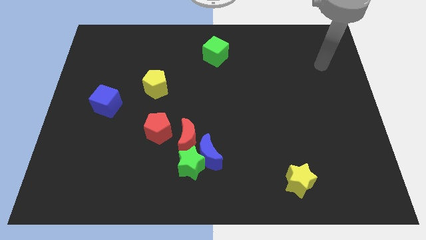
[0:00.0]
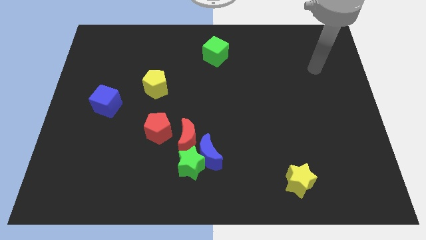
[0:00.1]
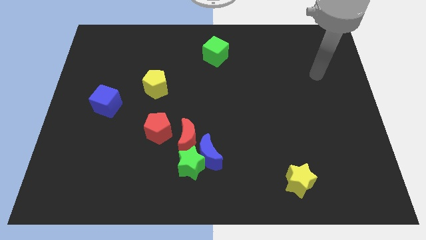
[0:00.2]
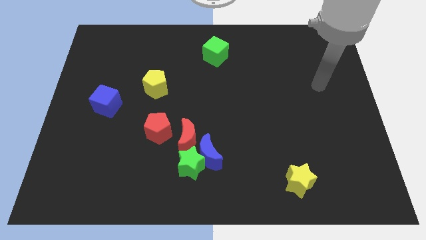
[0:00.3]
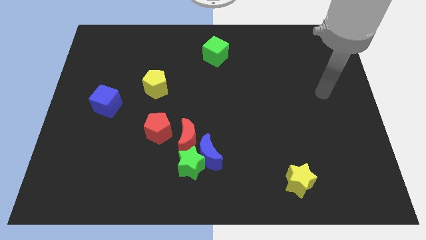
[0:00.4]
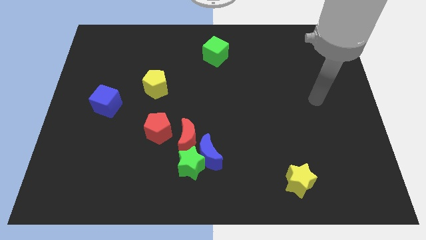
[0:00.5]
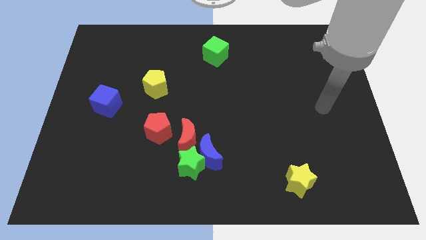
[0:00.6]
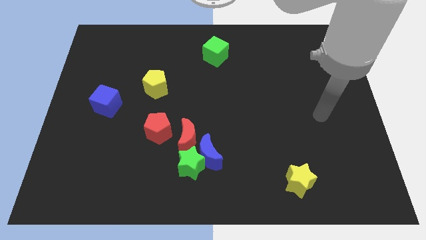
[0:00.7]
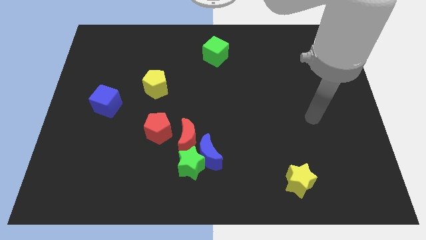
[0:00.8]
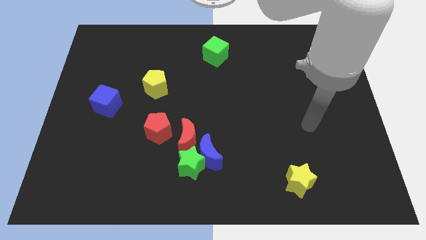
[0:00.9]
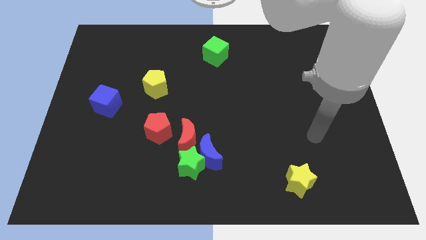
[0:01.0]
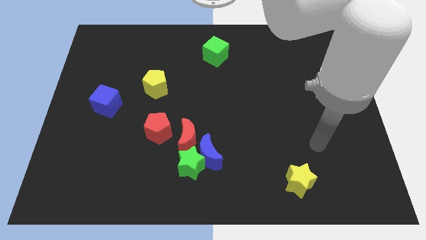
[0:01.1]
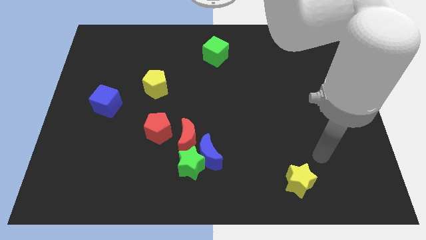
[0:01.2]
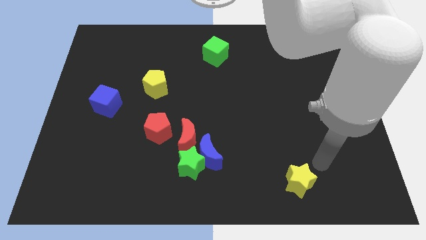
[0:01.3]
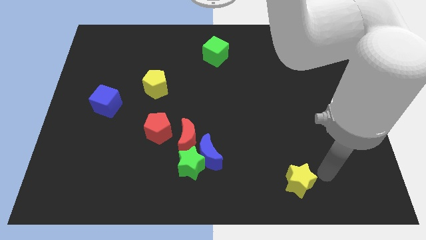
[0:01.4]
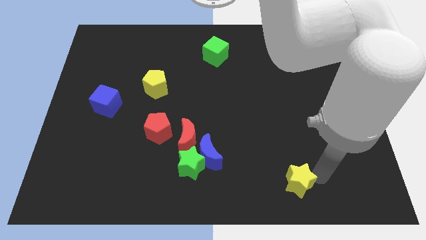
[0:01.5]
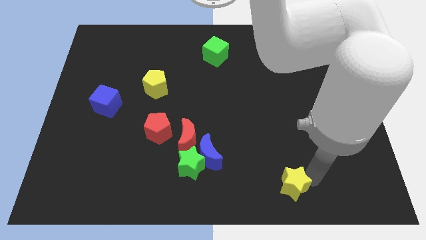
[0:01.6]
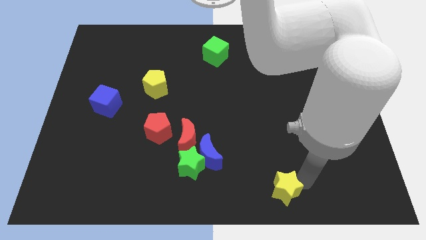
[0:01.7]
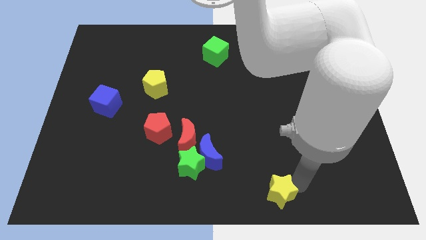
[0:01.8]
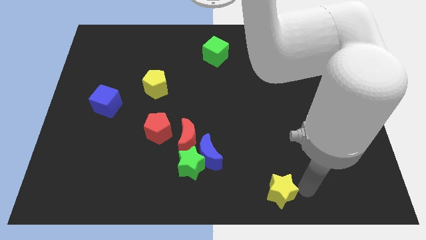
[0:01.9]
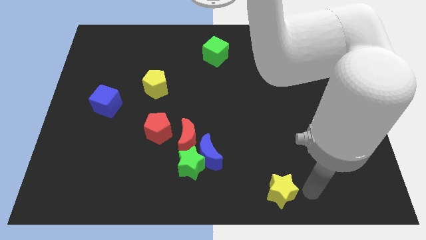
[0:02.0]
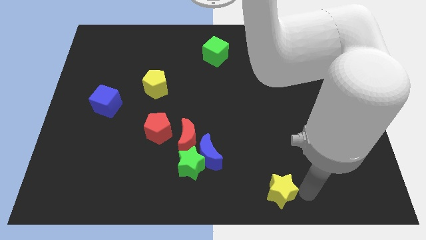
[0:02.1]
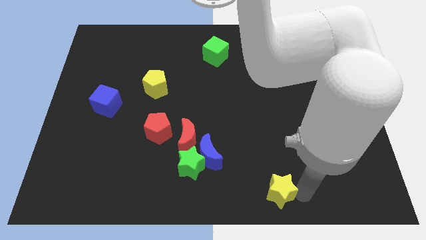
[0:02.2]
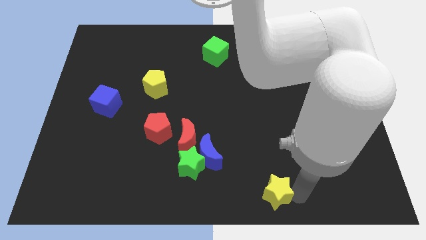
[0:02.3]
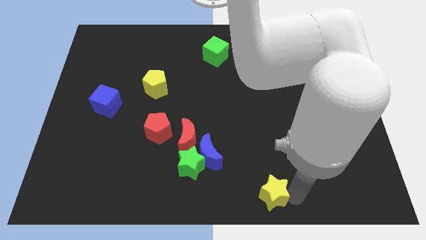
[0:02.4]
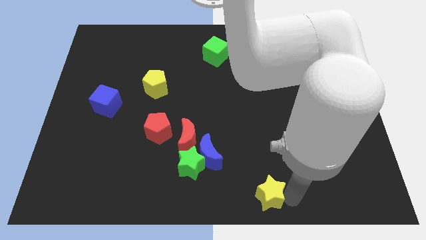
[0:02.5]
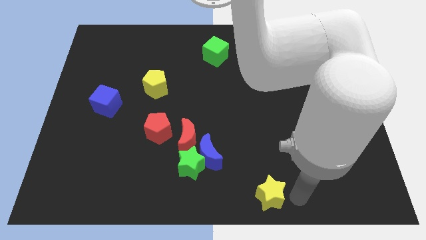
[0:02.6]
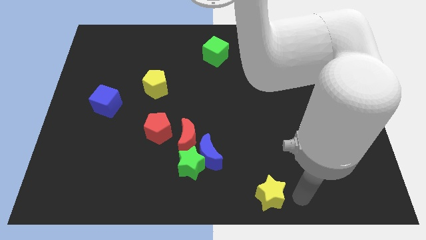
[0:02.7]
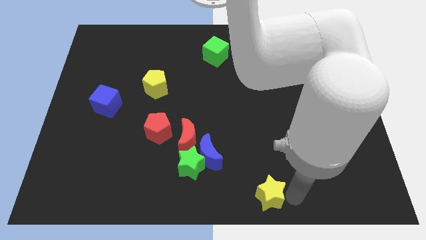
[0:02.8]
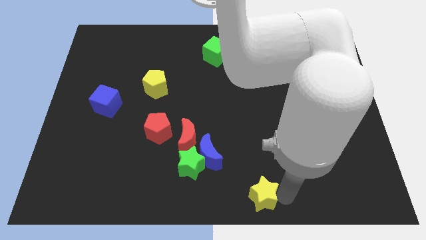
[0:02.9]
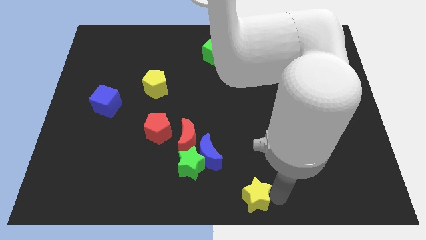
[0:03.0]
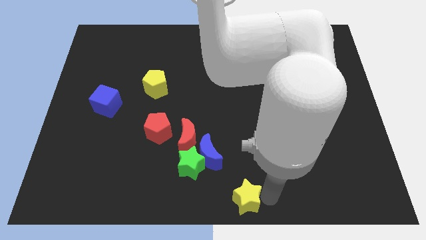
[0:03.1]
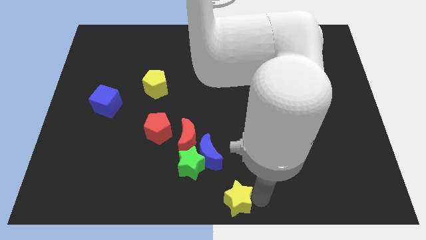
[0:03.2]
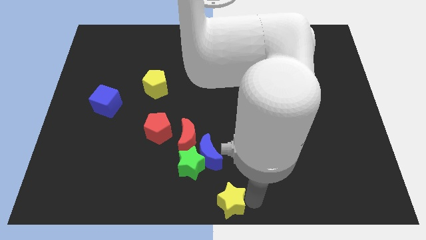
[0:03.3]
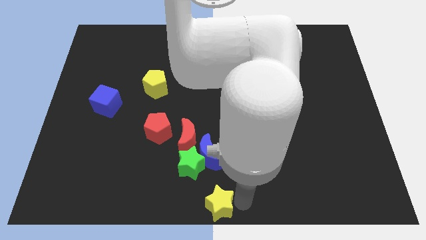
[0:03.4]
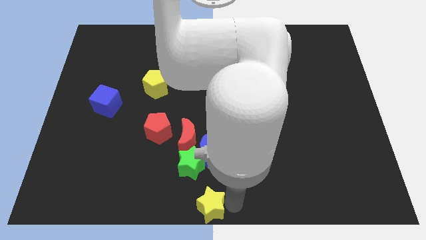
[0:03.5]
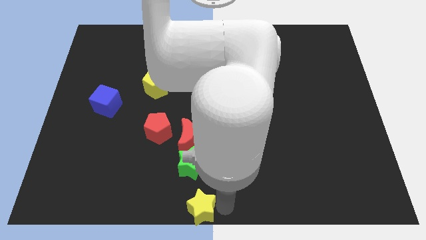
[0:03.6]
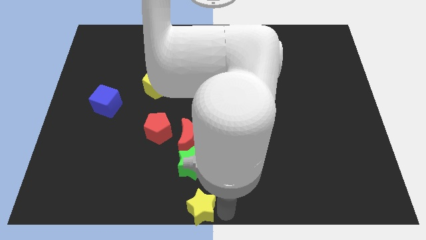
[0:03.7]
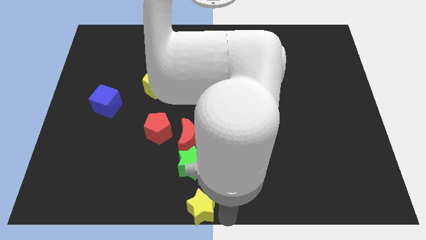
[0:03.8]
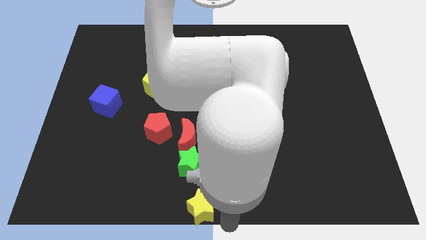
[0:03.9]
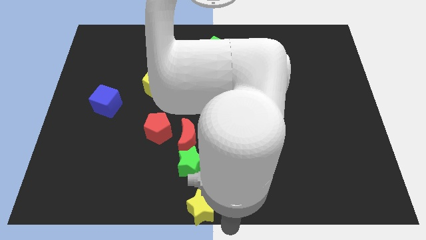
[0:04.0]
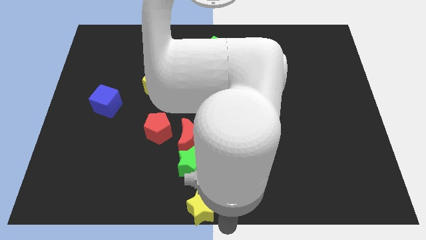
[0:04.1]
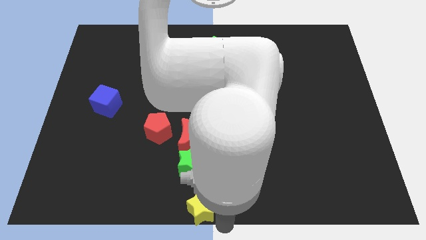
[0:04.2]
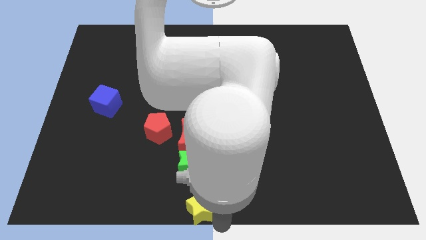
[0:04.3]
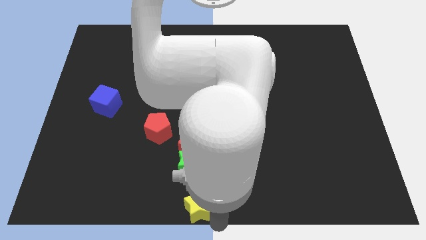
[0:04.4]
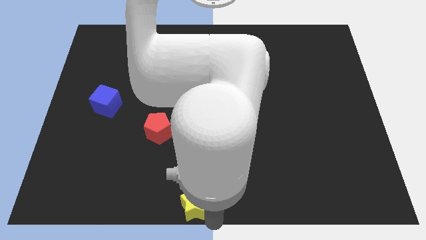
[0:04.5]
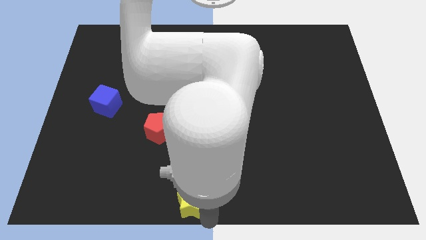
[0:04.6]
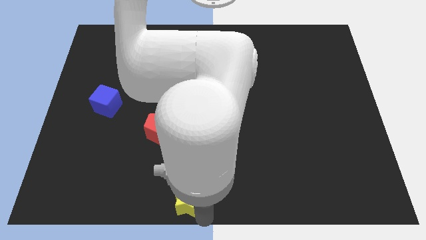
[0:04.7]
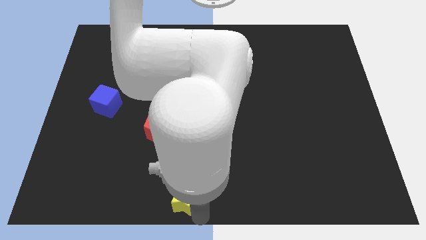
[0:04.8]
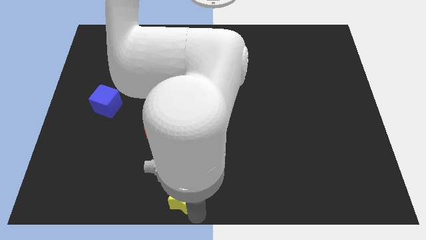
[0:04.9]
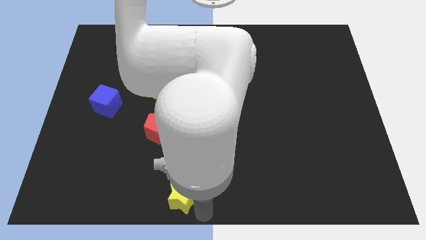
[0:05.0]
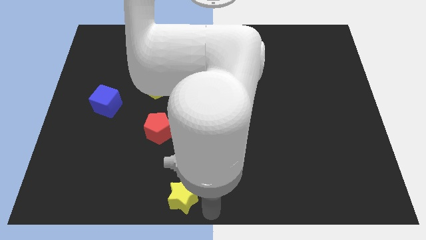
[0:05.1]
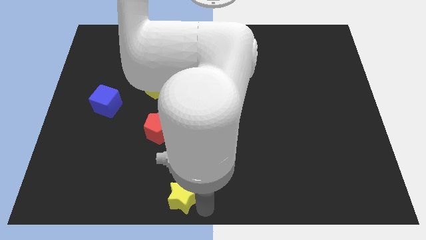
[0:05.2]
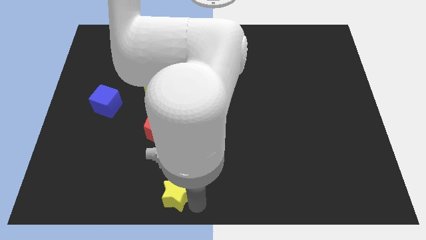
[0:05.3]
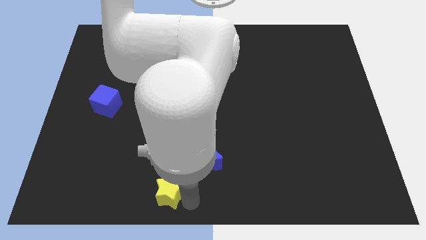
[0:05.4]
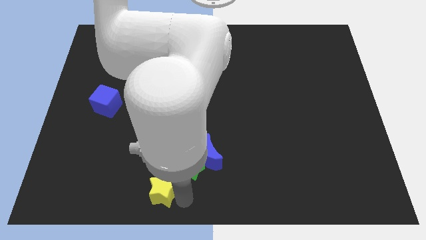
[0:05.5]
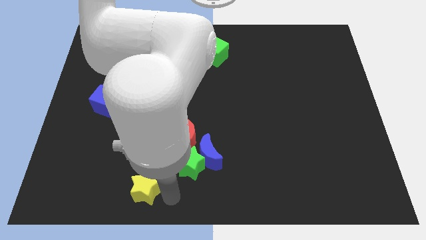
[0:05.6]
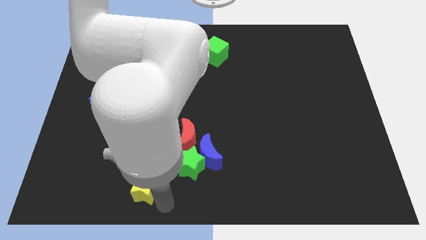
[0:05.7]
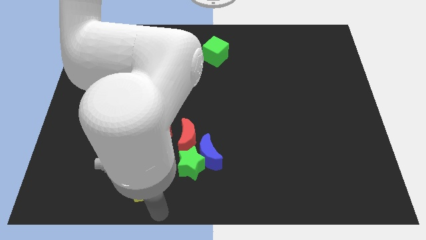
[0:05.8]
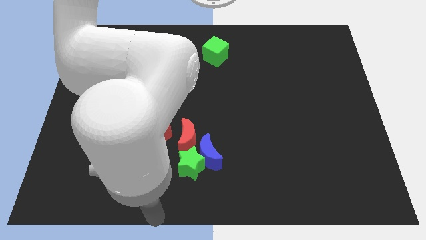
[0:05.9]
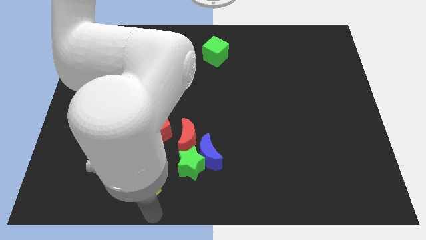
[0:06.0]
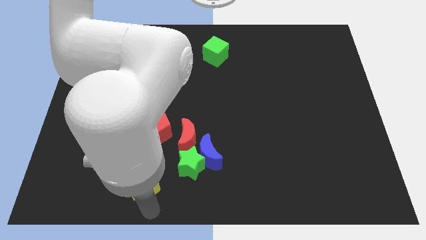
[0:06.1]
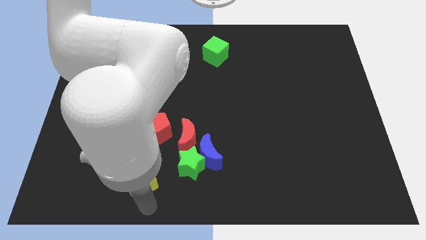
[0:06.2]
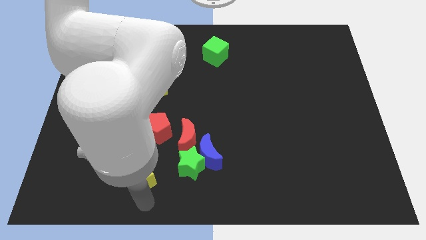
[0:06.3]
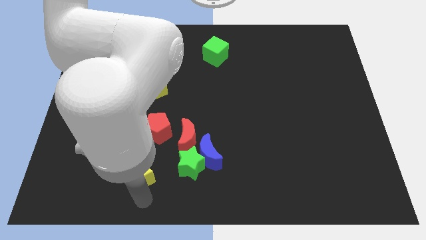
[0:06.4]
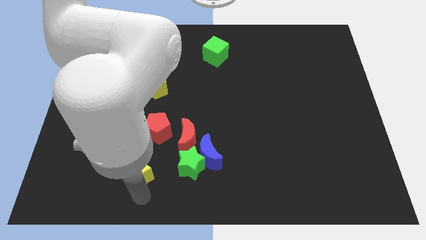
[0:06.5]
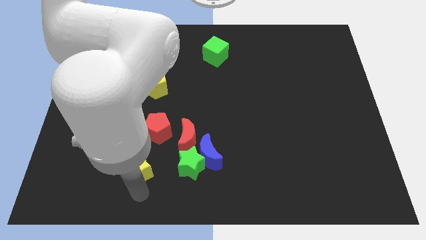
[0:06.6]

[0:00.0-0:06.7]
move the yellow star to the bottom left side of the red pentagon

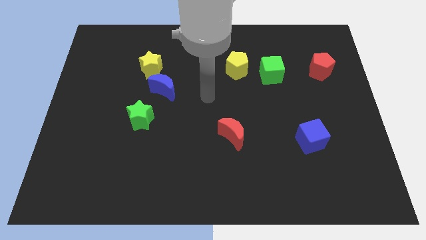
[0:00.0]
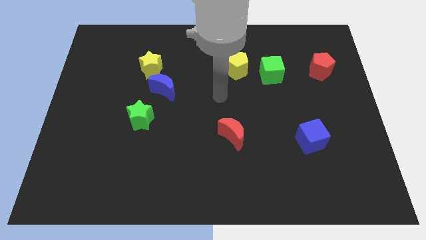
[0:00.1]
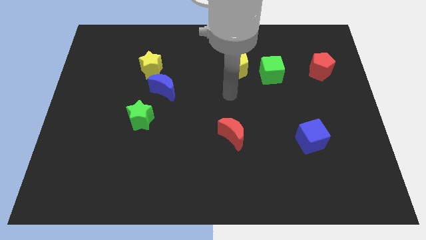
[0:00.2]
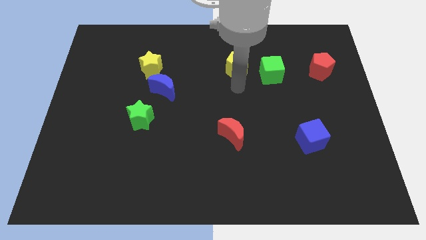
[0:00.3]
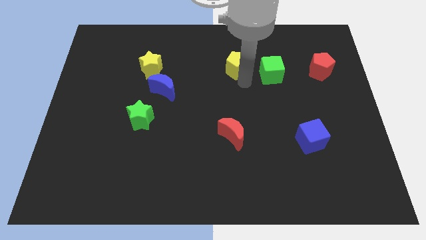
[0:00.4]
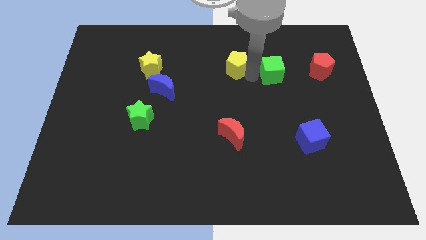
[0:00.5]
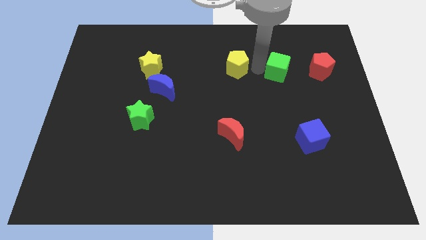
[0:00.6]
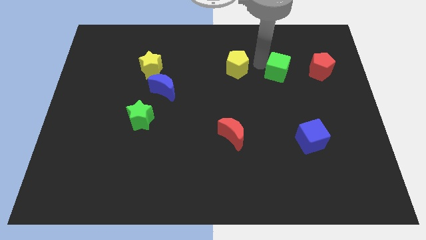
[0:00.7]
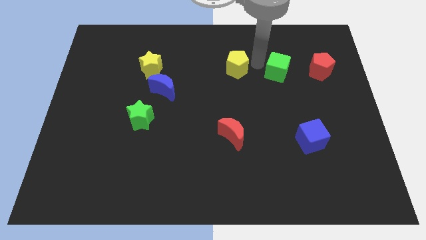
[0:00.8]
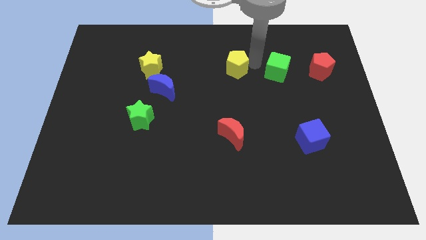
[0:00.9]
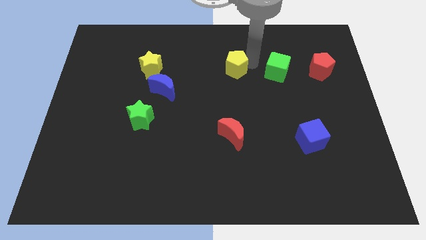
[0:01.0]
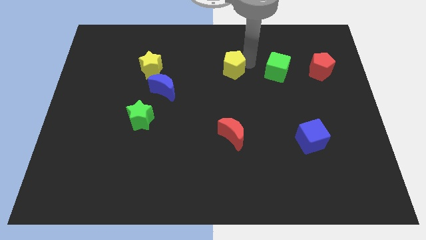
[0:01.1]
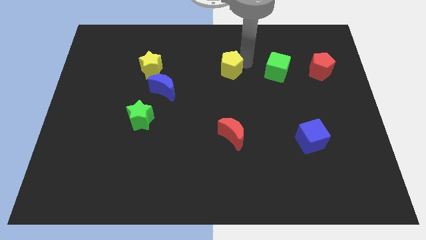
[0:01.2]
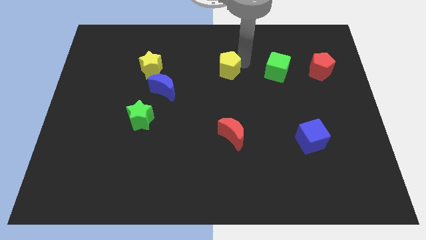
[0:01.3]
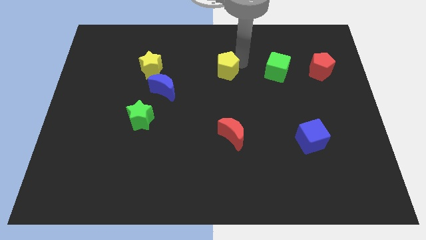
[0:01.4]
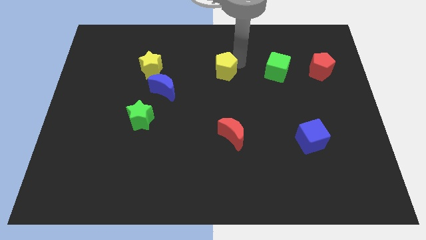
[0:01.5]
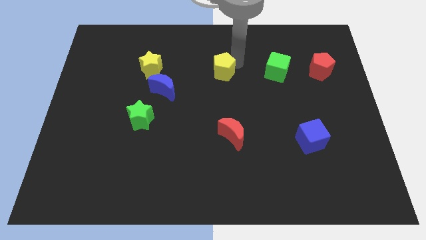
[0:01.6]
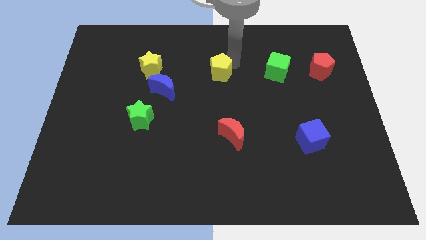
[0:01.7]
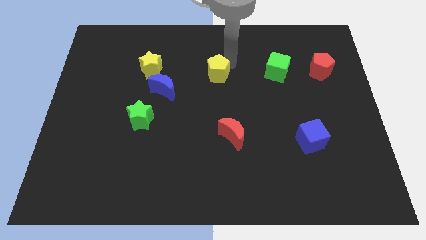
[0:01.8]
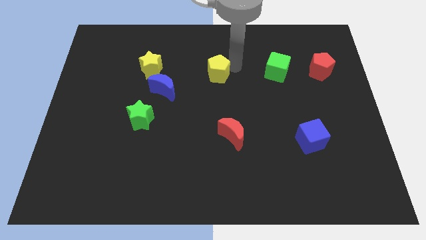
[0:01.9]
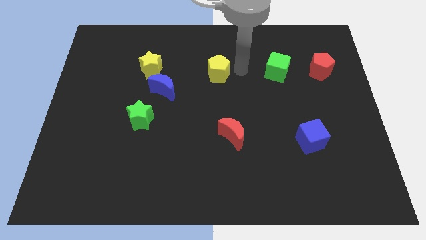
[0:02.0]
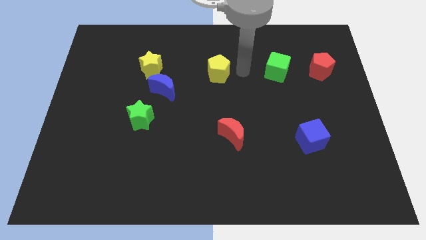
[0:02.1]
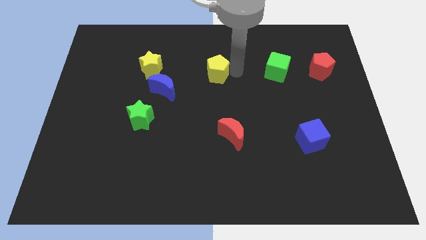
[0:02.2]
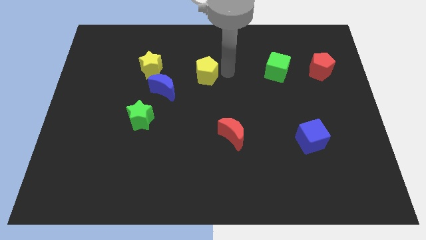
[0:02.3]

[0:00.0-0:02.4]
put the yellow pentagon diagonally up and to the right of the blue moon
